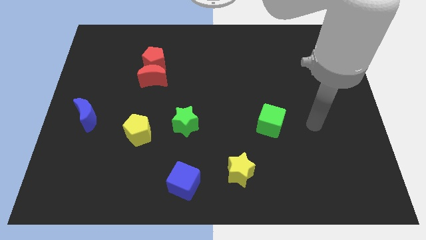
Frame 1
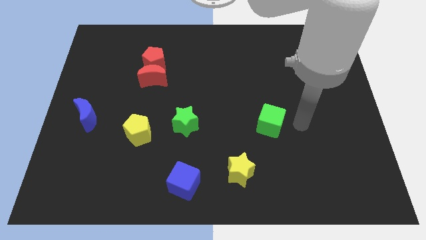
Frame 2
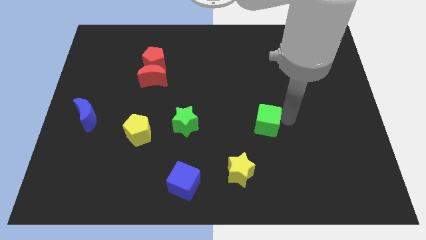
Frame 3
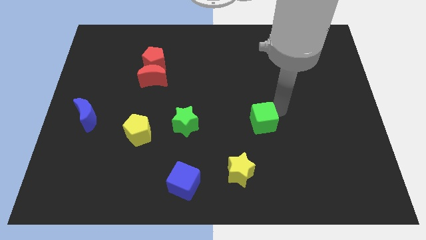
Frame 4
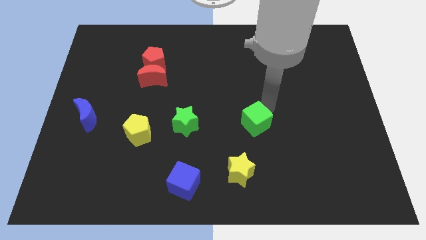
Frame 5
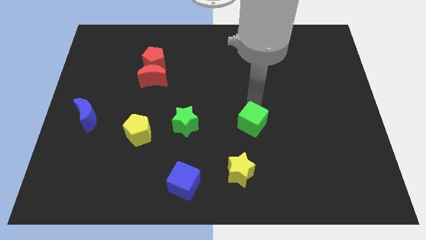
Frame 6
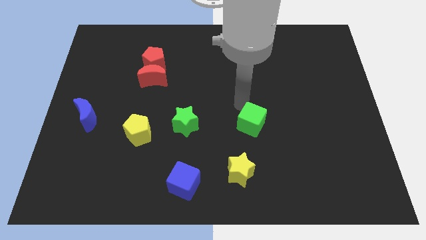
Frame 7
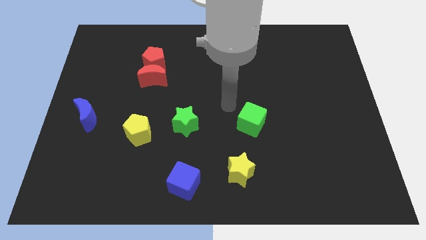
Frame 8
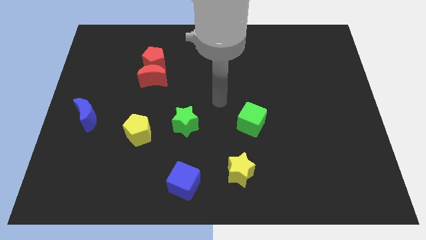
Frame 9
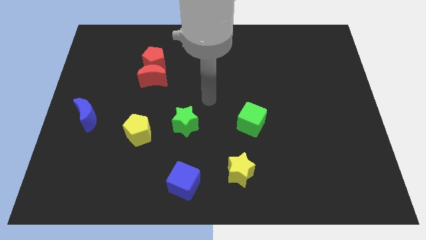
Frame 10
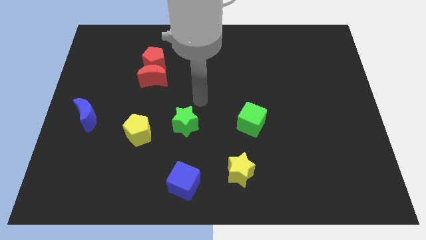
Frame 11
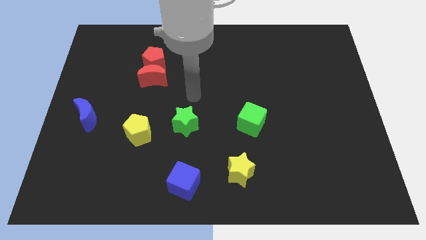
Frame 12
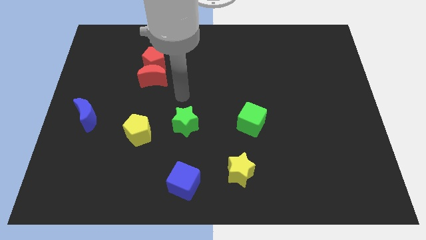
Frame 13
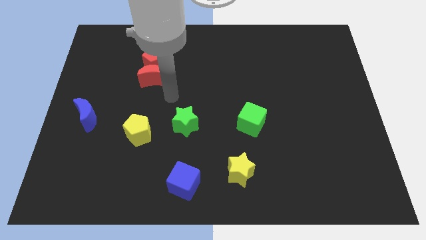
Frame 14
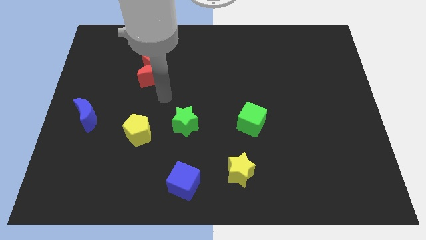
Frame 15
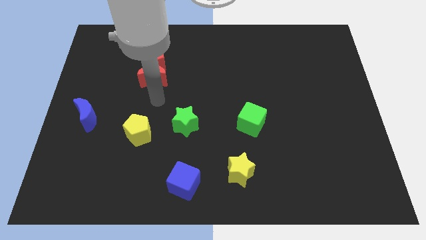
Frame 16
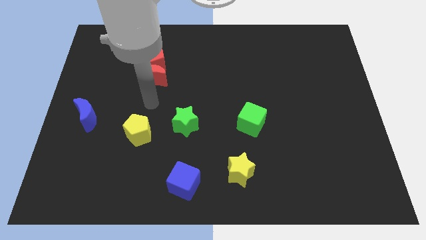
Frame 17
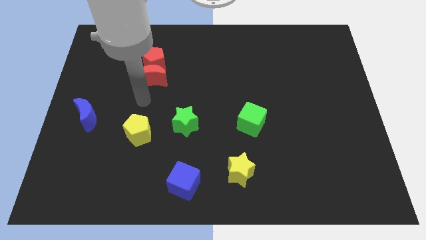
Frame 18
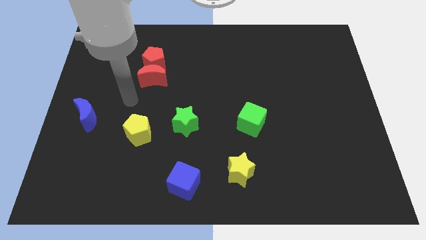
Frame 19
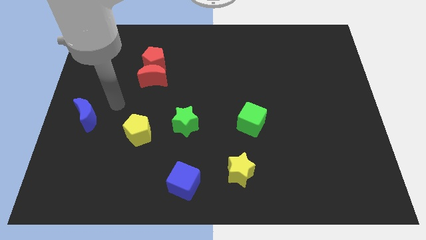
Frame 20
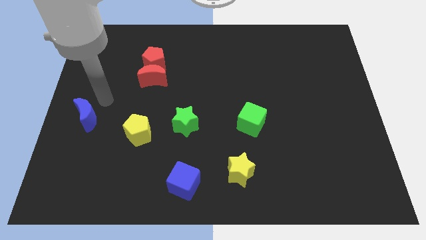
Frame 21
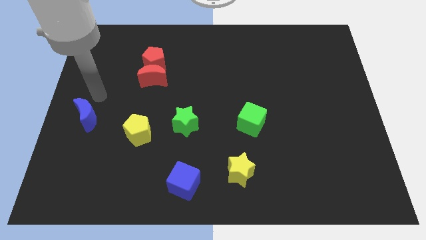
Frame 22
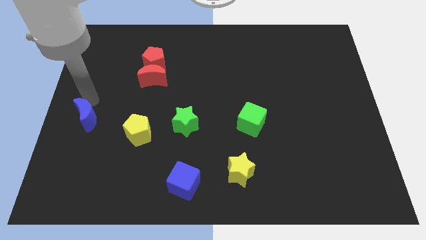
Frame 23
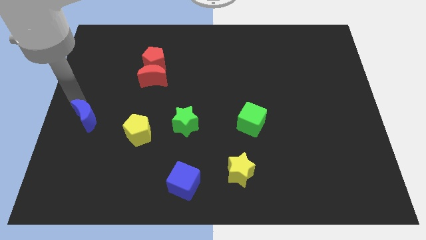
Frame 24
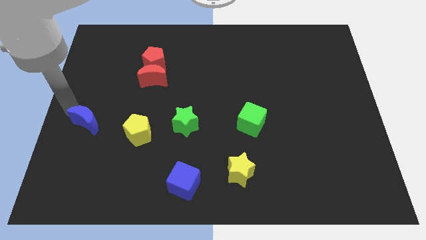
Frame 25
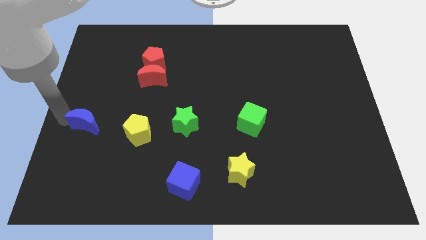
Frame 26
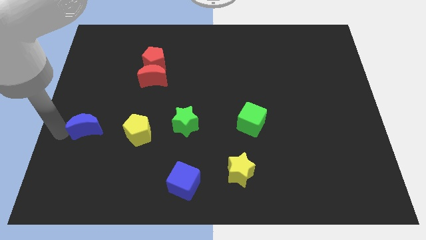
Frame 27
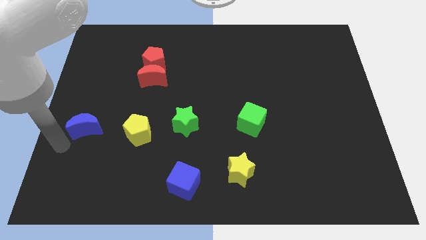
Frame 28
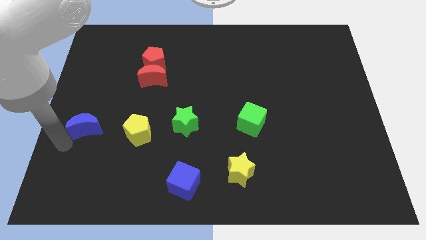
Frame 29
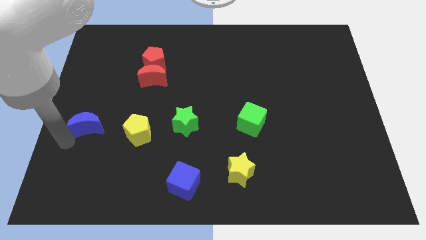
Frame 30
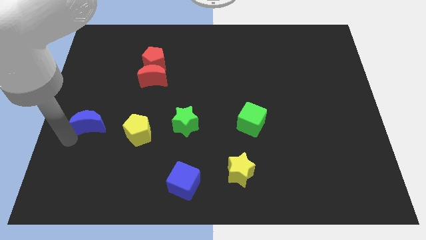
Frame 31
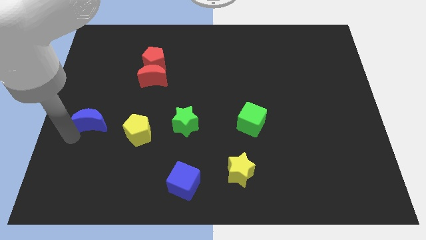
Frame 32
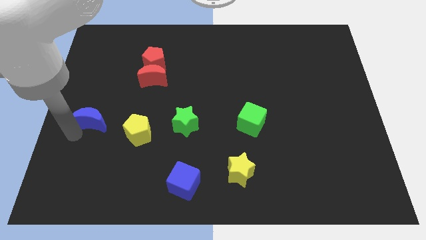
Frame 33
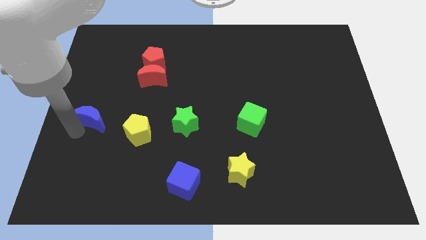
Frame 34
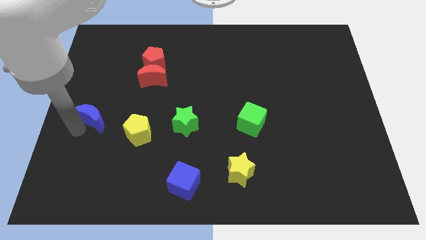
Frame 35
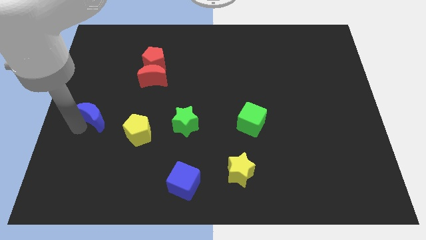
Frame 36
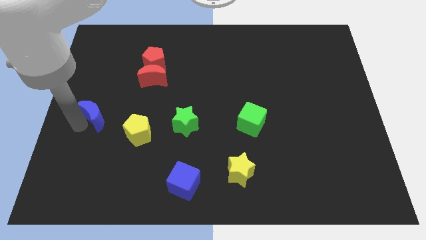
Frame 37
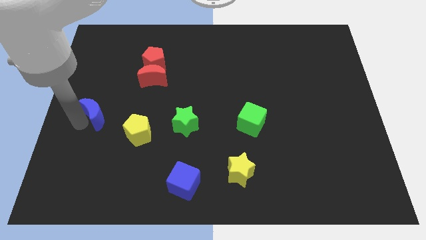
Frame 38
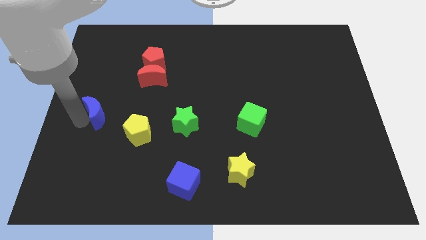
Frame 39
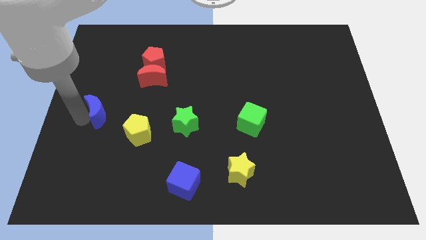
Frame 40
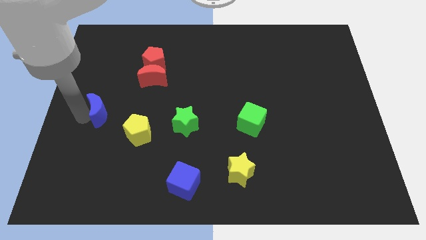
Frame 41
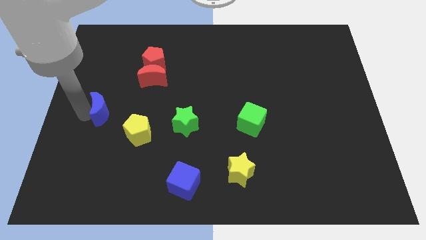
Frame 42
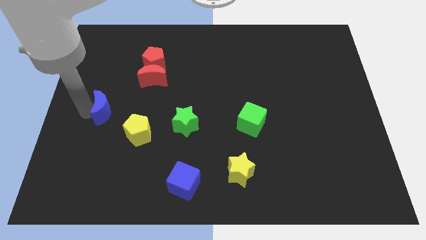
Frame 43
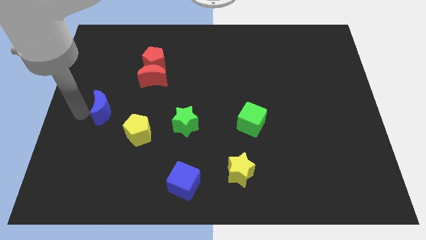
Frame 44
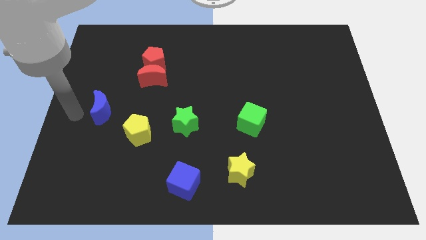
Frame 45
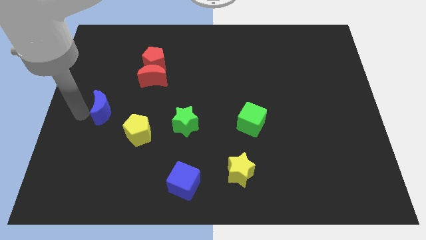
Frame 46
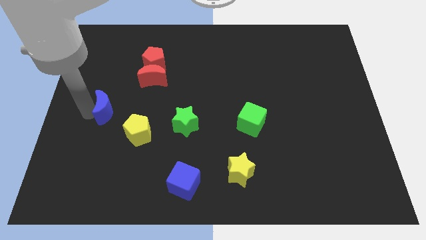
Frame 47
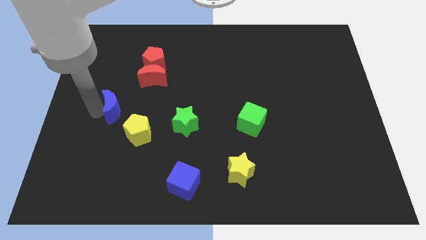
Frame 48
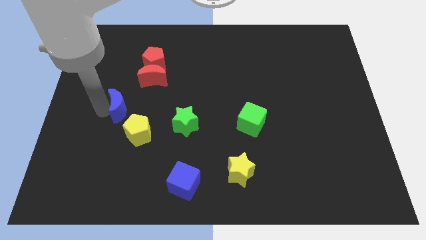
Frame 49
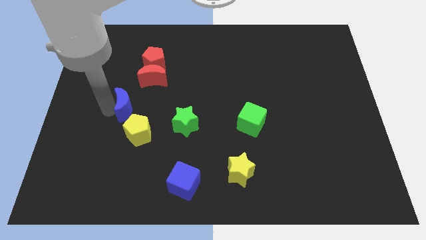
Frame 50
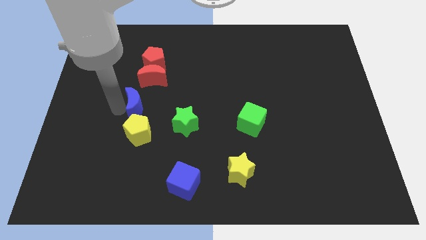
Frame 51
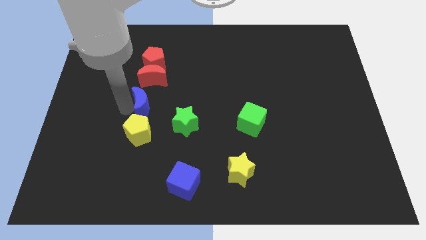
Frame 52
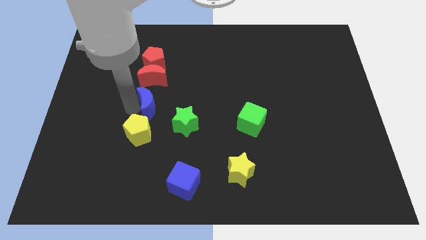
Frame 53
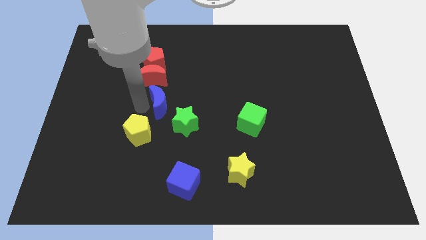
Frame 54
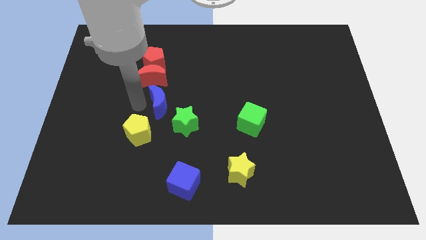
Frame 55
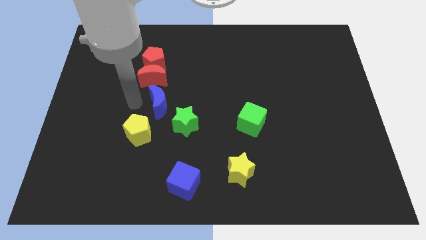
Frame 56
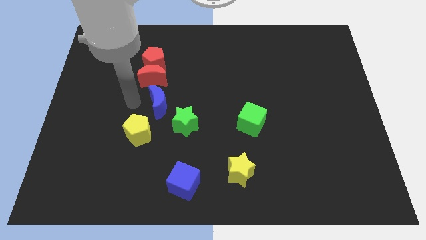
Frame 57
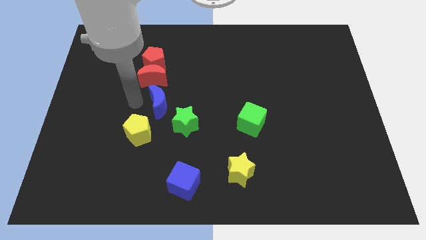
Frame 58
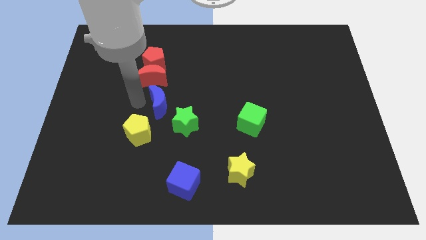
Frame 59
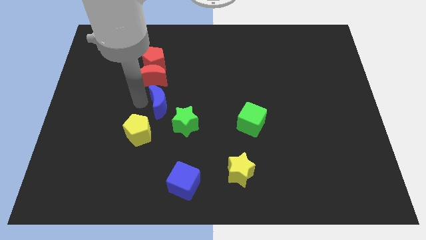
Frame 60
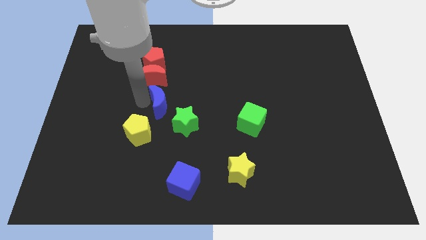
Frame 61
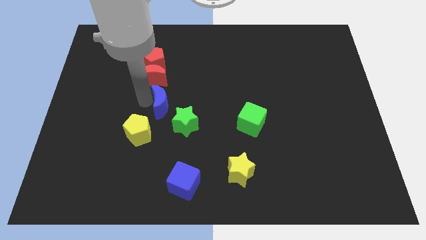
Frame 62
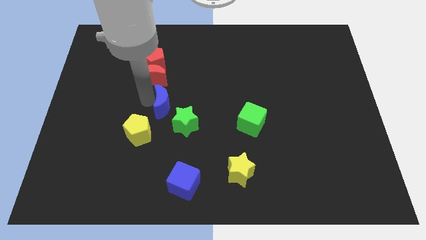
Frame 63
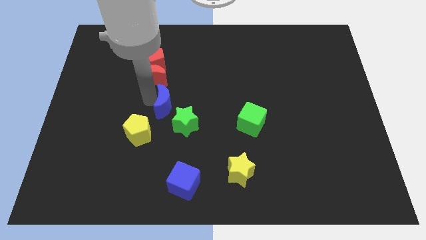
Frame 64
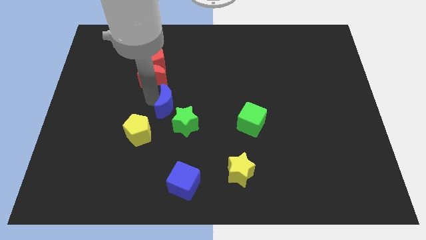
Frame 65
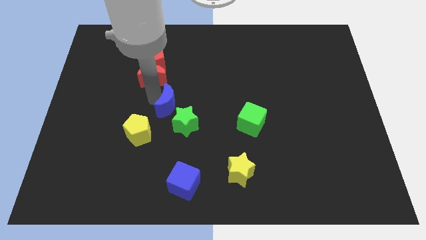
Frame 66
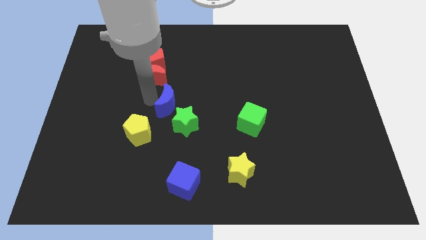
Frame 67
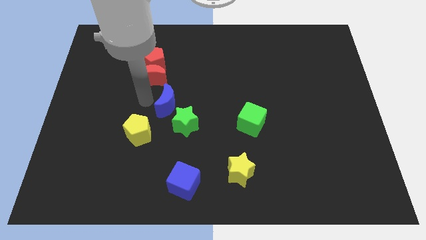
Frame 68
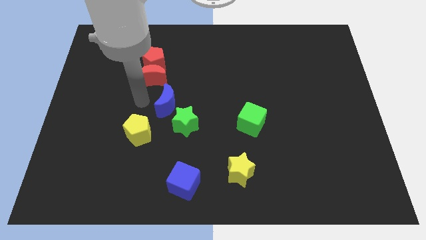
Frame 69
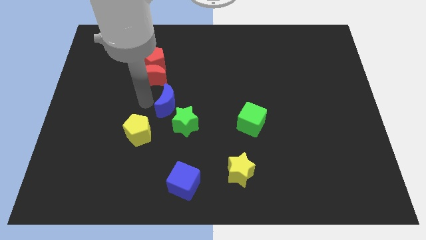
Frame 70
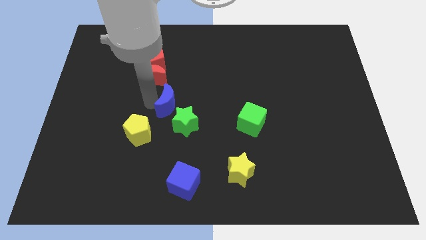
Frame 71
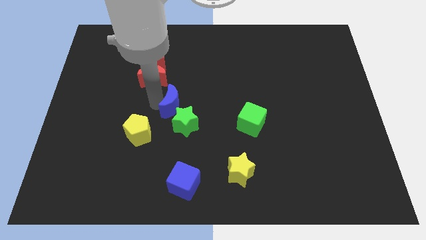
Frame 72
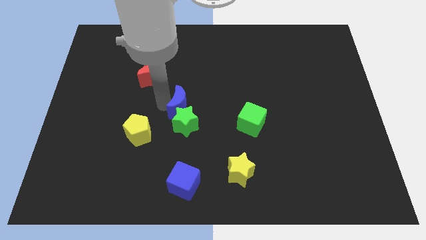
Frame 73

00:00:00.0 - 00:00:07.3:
push the blue moon right

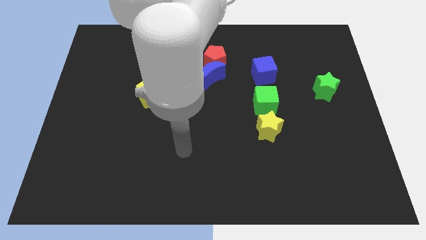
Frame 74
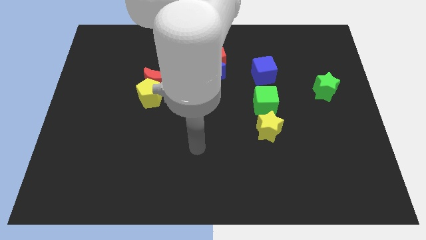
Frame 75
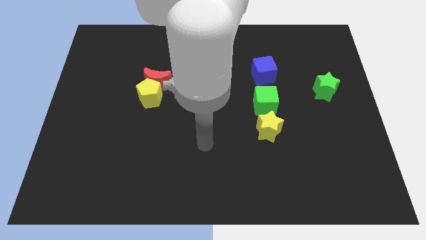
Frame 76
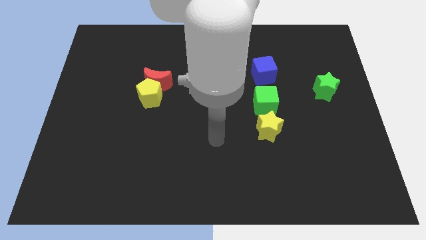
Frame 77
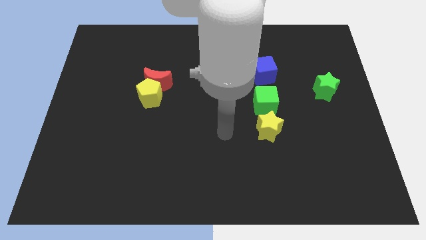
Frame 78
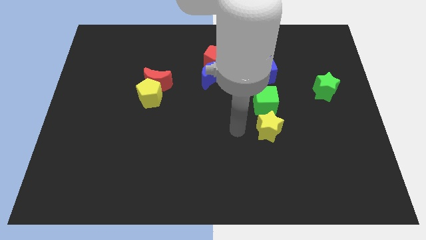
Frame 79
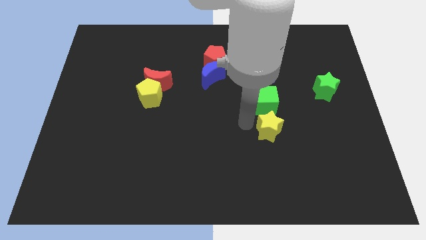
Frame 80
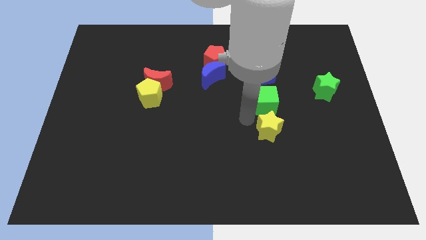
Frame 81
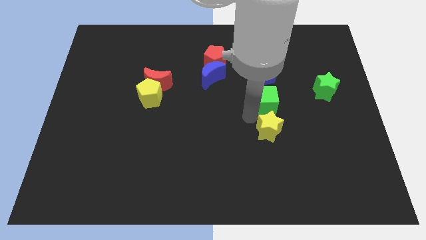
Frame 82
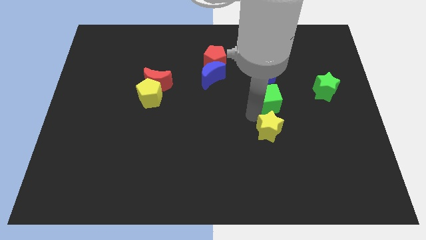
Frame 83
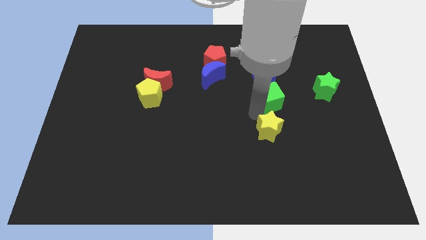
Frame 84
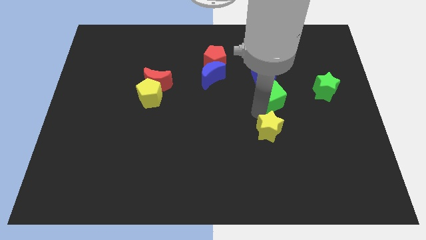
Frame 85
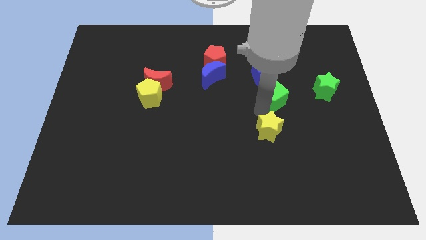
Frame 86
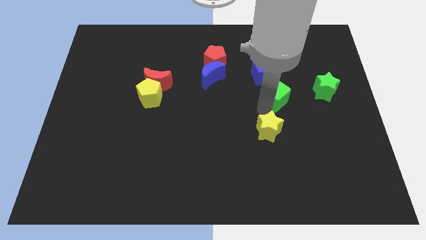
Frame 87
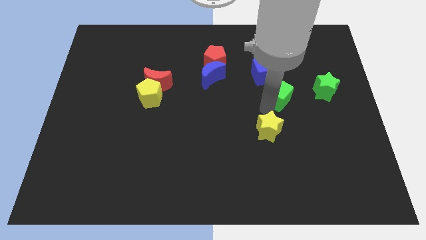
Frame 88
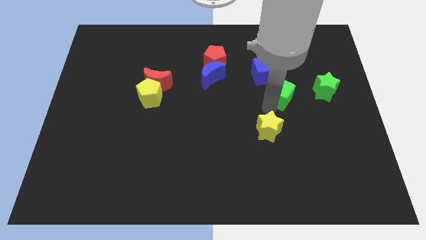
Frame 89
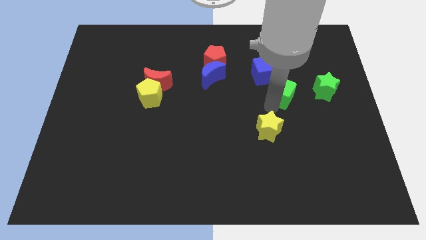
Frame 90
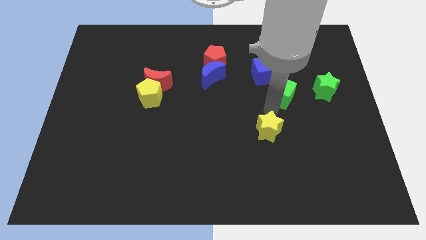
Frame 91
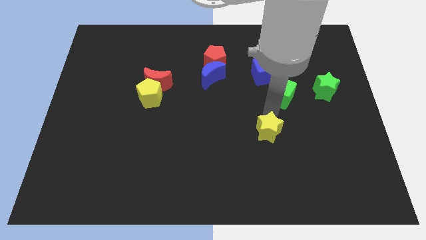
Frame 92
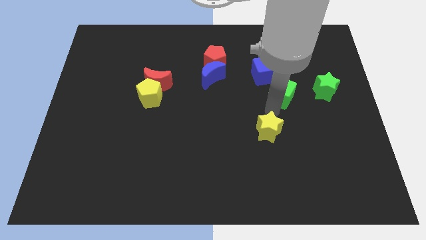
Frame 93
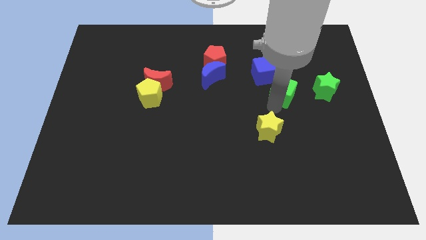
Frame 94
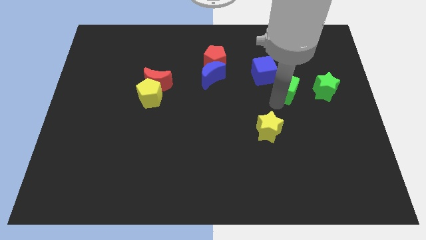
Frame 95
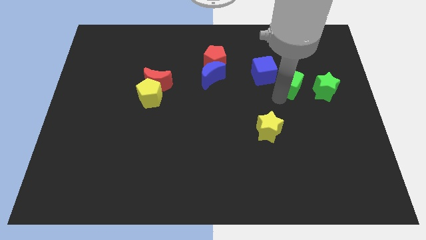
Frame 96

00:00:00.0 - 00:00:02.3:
push the green cube slightly up and right
